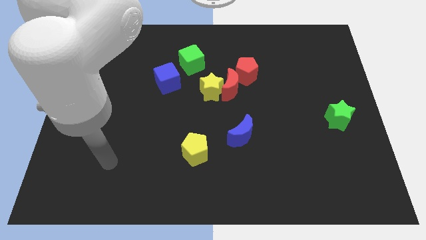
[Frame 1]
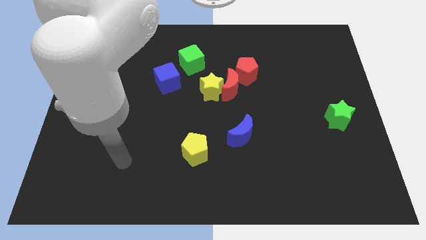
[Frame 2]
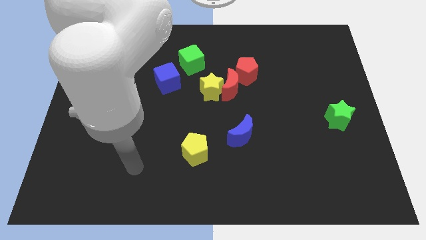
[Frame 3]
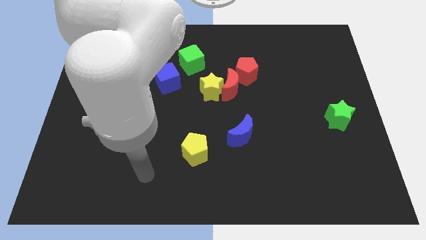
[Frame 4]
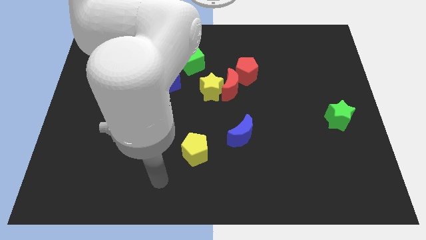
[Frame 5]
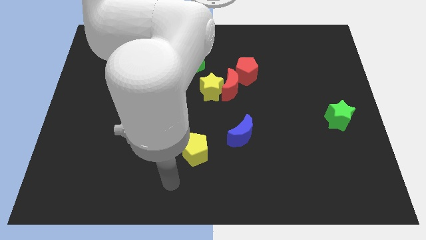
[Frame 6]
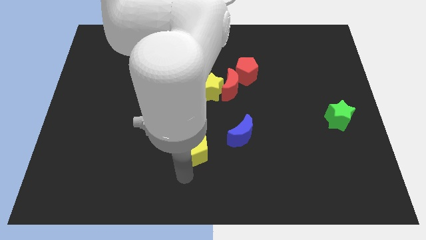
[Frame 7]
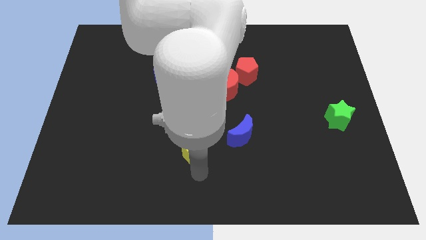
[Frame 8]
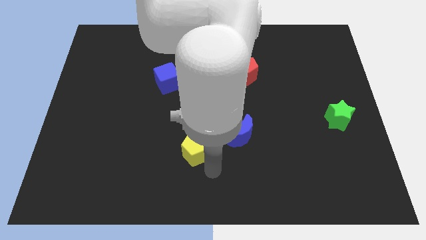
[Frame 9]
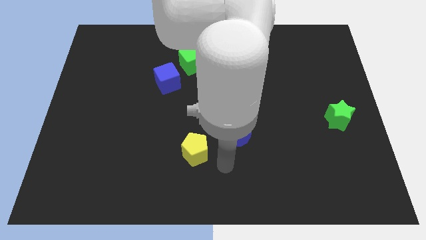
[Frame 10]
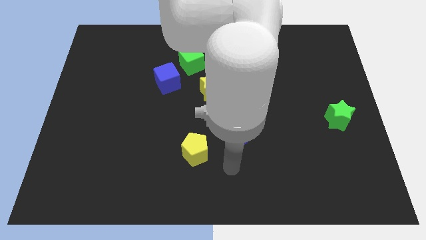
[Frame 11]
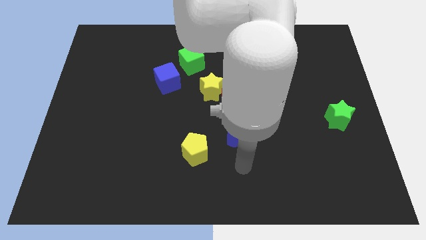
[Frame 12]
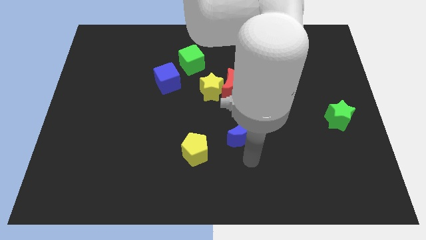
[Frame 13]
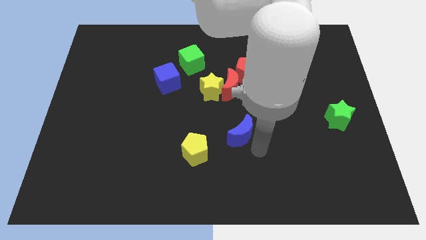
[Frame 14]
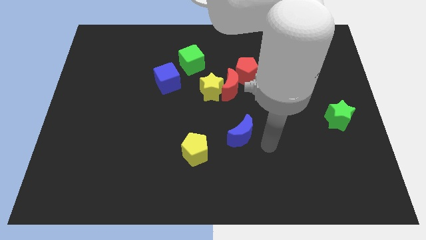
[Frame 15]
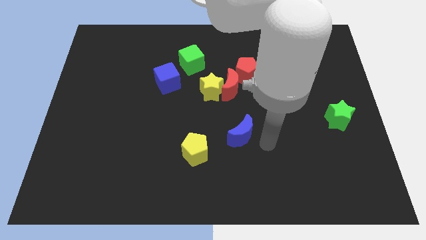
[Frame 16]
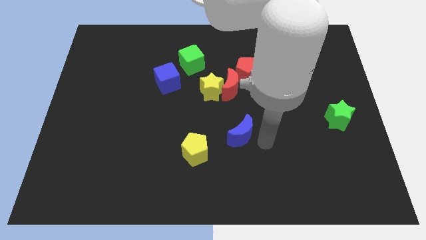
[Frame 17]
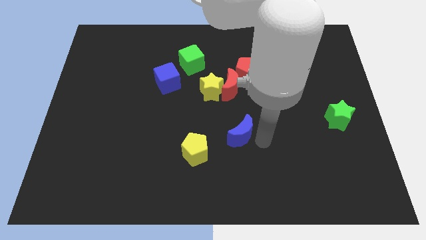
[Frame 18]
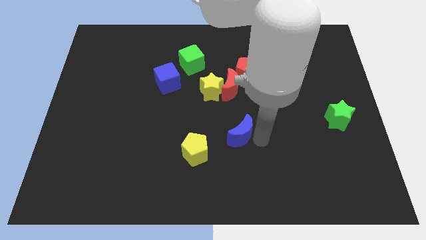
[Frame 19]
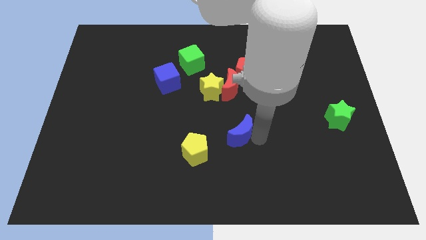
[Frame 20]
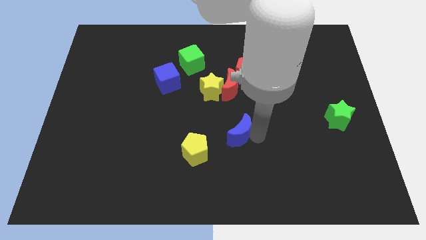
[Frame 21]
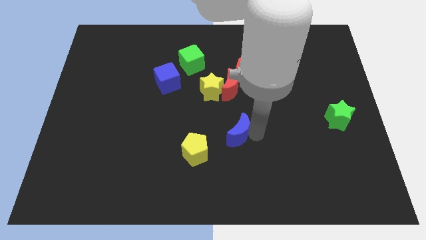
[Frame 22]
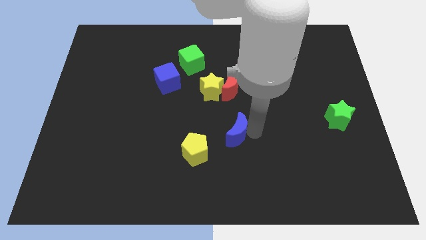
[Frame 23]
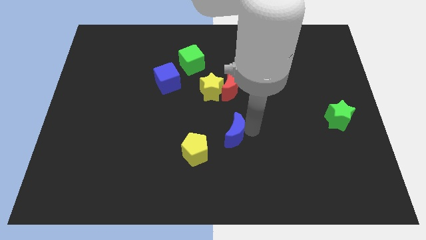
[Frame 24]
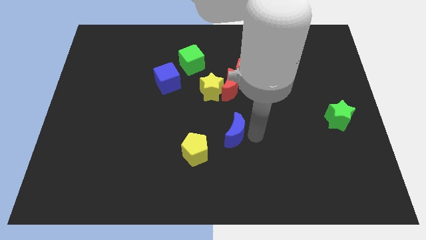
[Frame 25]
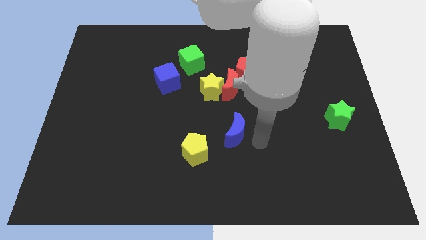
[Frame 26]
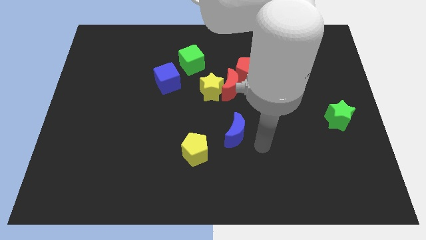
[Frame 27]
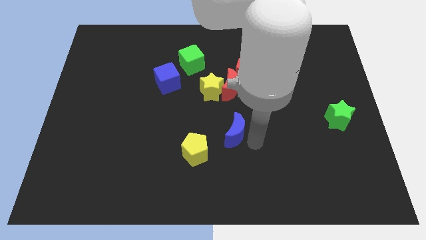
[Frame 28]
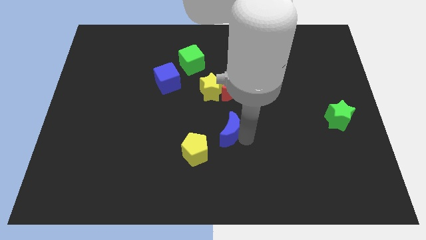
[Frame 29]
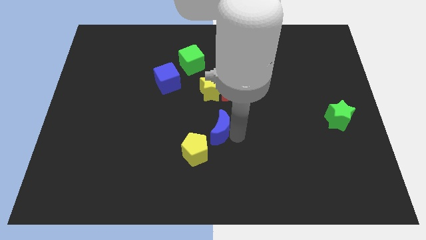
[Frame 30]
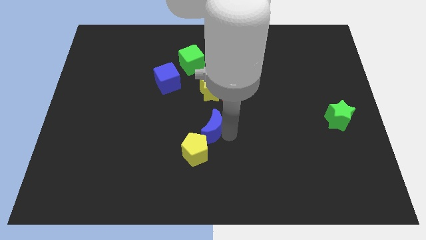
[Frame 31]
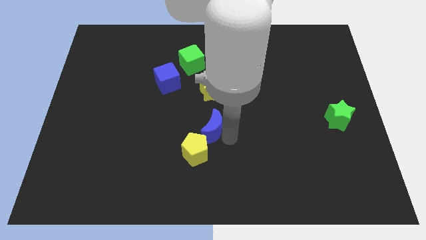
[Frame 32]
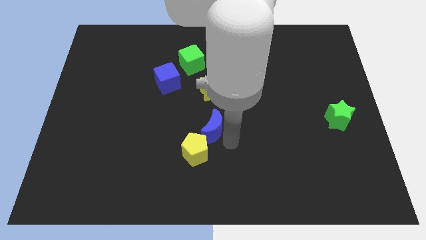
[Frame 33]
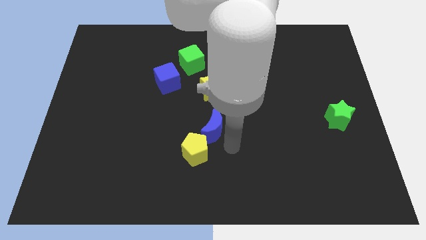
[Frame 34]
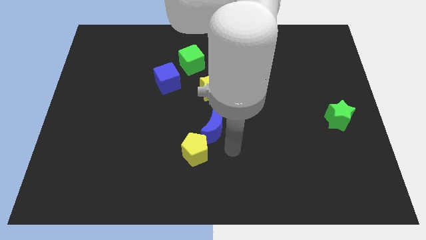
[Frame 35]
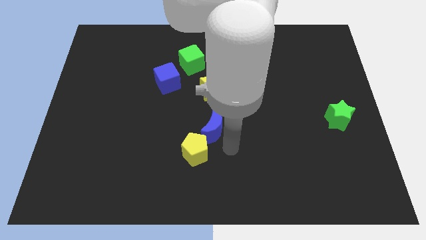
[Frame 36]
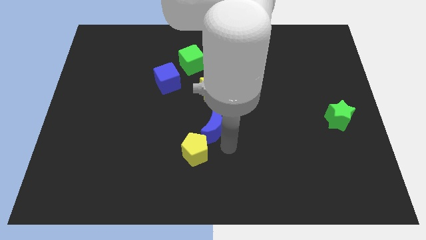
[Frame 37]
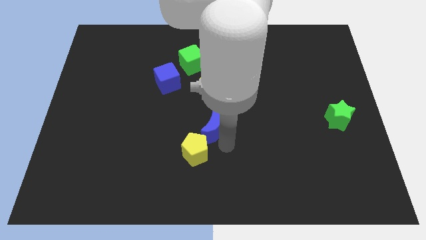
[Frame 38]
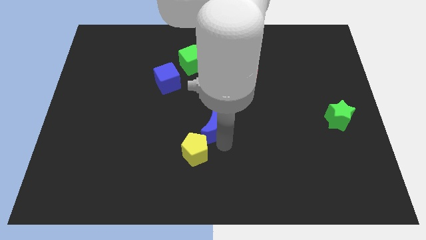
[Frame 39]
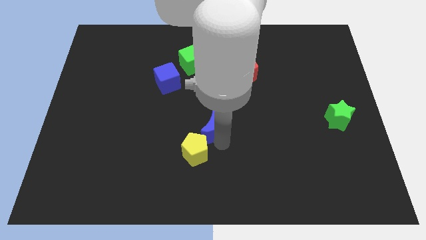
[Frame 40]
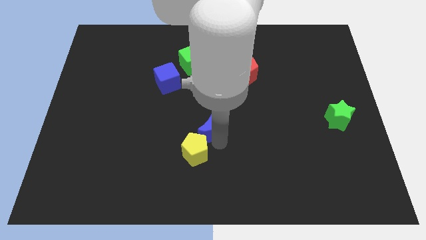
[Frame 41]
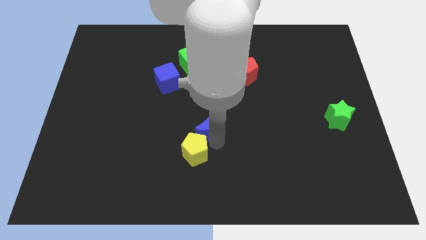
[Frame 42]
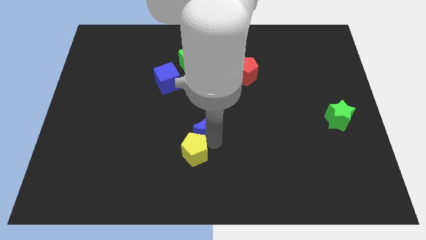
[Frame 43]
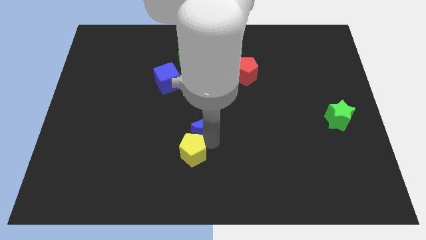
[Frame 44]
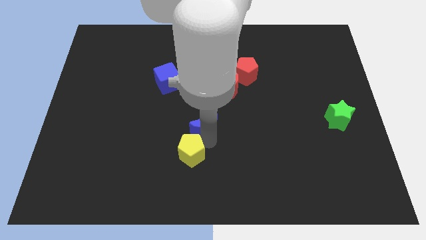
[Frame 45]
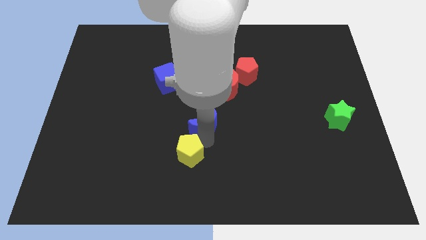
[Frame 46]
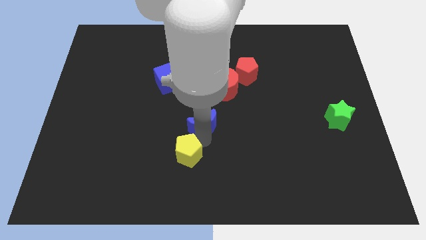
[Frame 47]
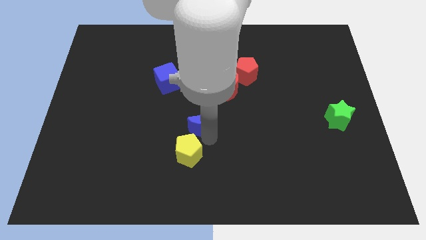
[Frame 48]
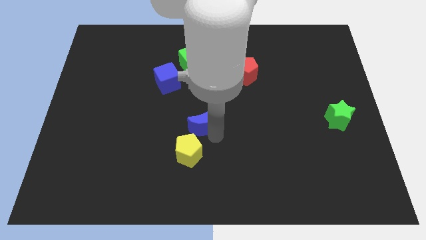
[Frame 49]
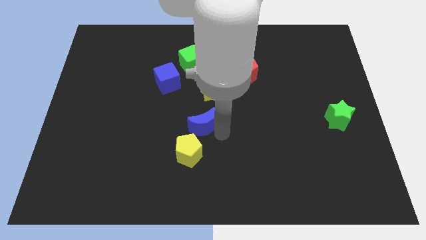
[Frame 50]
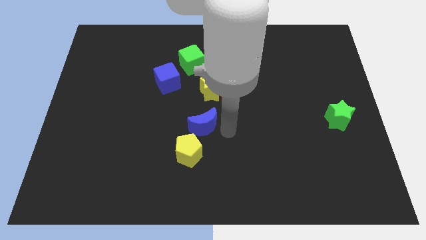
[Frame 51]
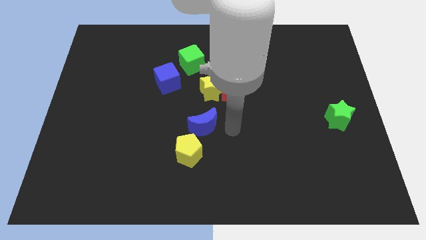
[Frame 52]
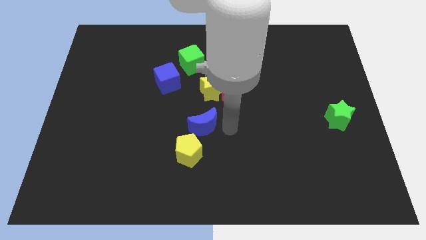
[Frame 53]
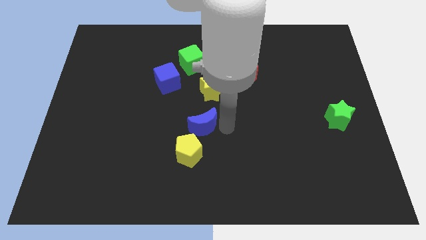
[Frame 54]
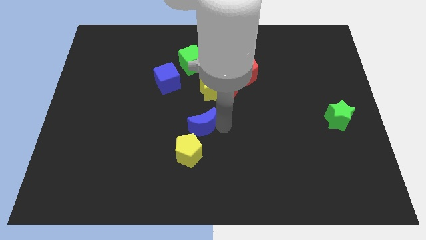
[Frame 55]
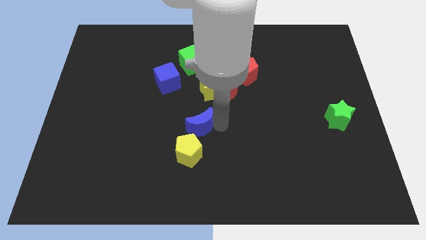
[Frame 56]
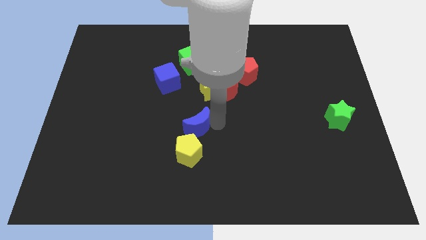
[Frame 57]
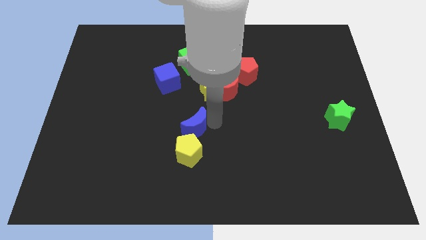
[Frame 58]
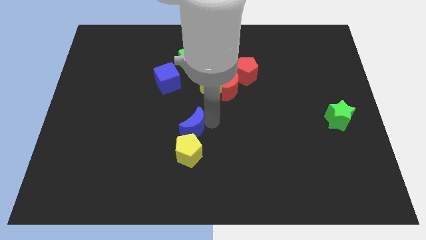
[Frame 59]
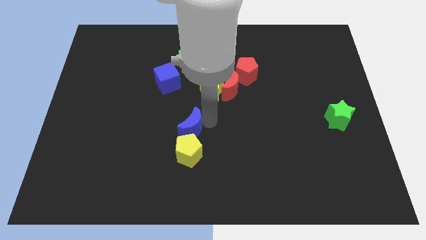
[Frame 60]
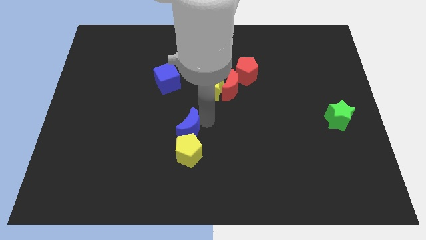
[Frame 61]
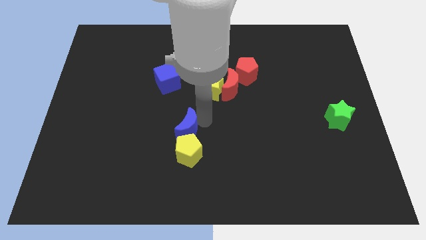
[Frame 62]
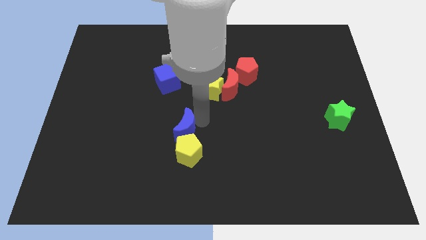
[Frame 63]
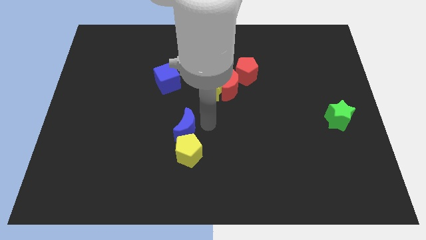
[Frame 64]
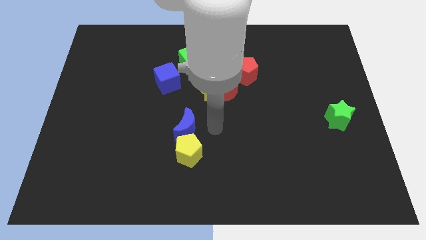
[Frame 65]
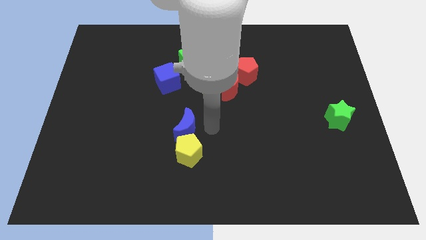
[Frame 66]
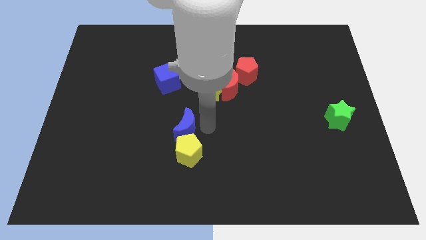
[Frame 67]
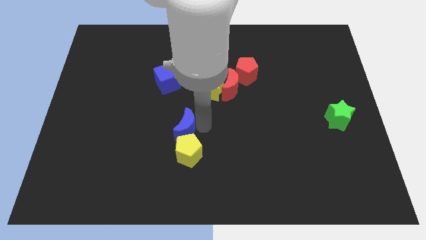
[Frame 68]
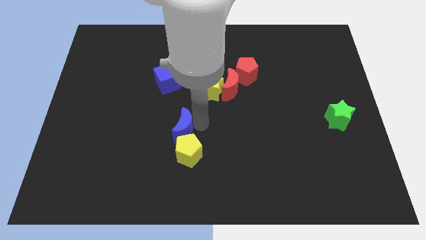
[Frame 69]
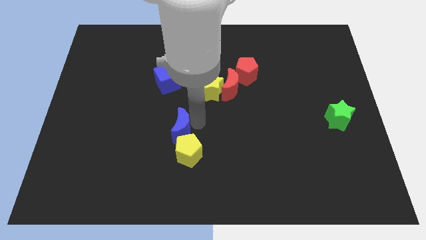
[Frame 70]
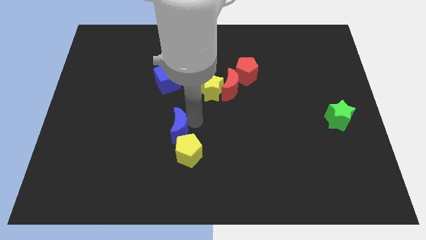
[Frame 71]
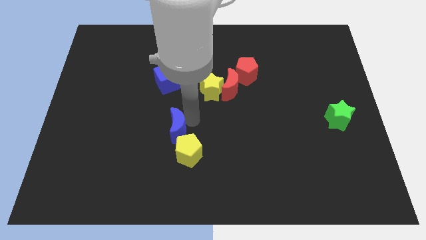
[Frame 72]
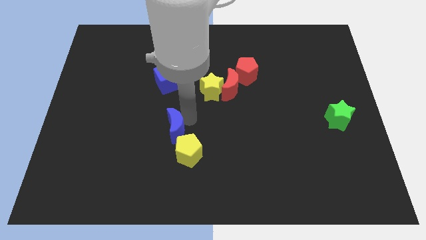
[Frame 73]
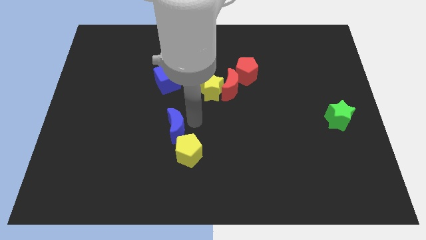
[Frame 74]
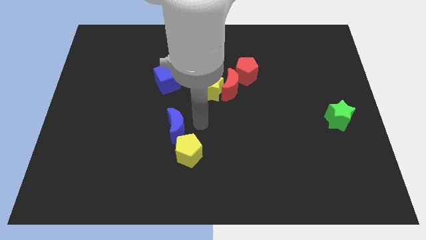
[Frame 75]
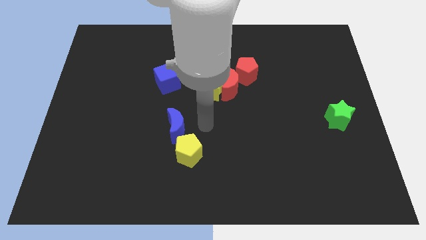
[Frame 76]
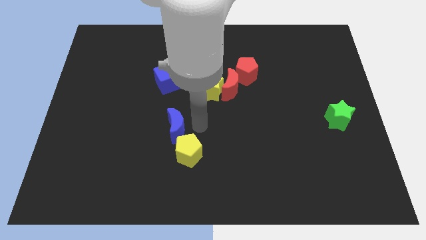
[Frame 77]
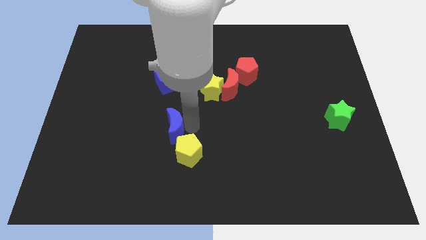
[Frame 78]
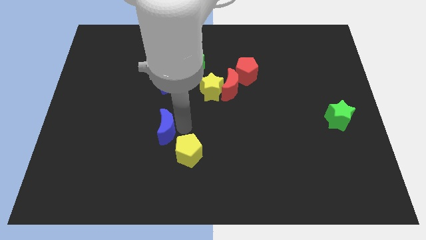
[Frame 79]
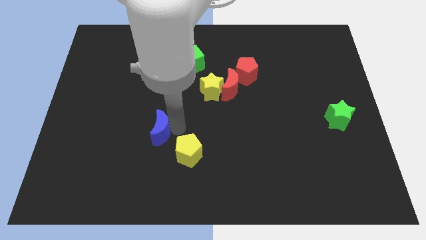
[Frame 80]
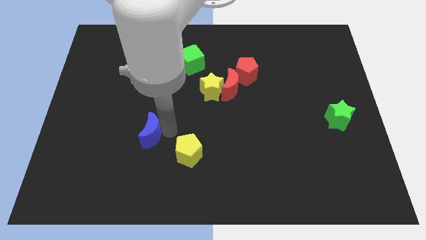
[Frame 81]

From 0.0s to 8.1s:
move the blue moon left
